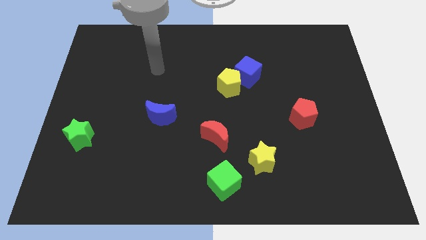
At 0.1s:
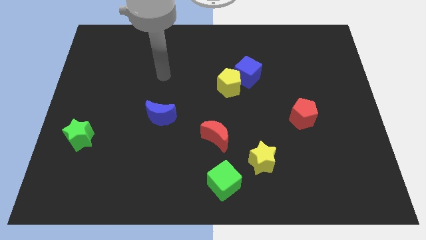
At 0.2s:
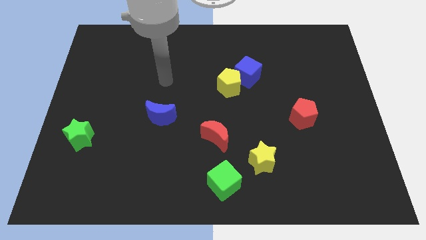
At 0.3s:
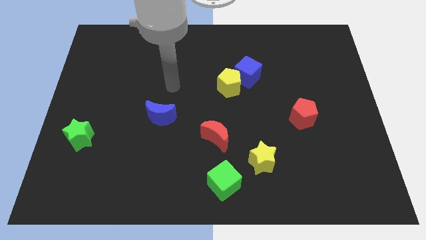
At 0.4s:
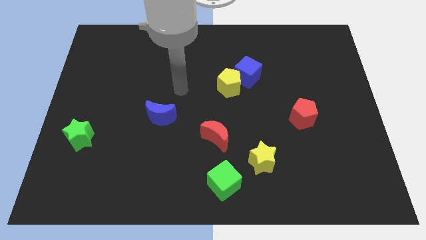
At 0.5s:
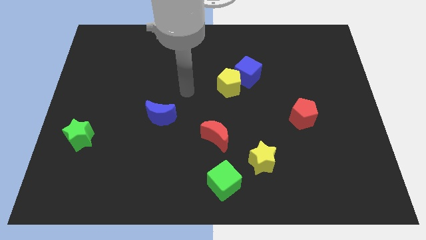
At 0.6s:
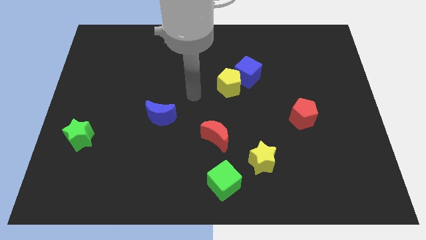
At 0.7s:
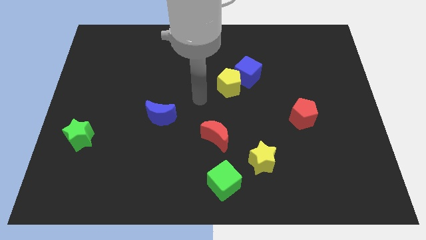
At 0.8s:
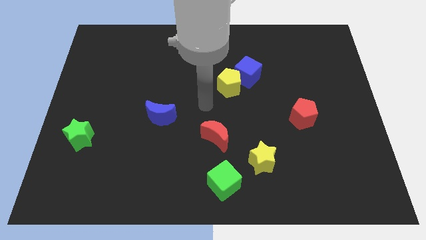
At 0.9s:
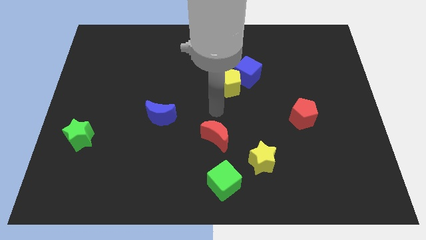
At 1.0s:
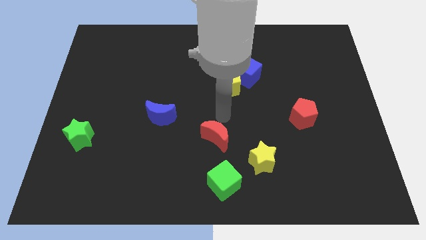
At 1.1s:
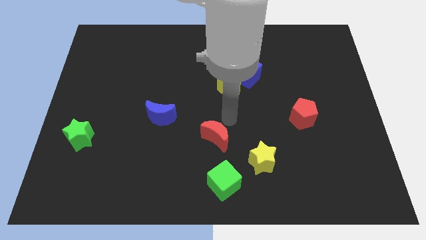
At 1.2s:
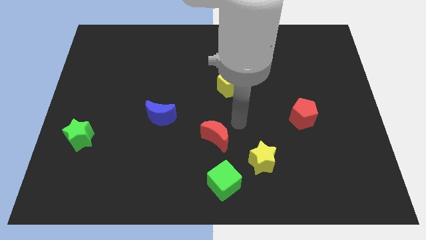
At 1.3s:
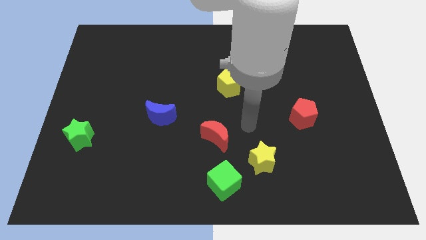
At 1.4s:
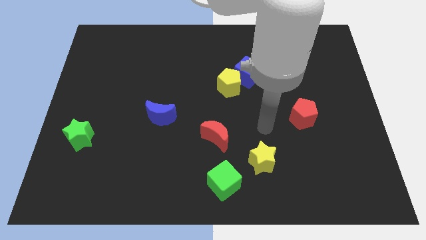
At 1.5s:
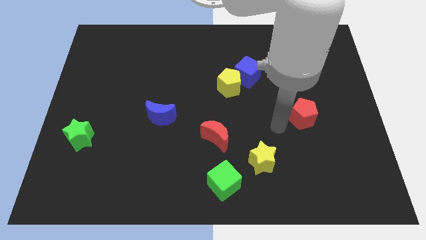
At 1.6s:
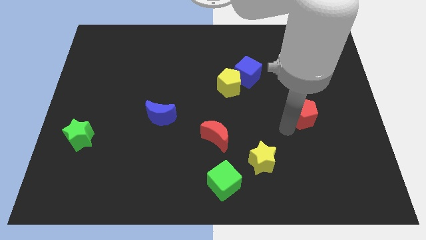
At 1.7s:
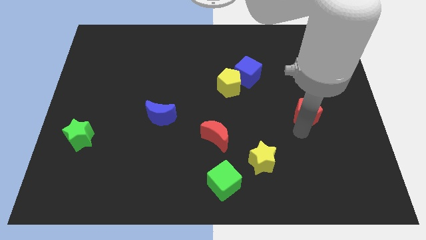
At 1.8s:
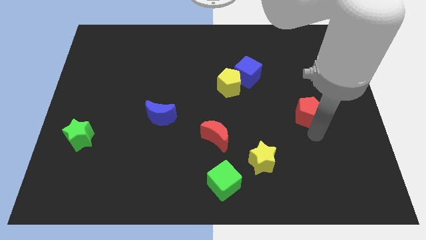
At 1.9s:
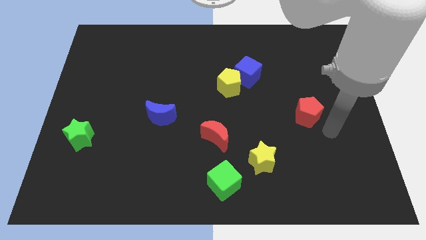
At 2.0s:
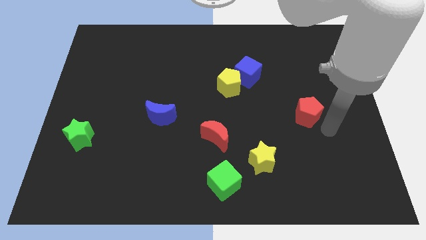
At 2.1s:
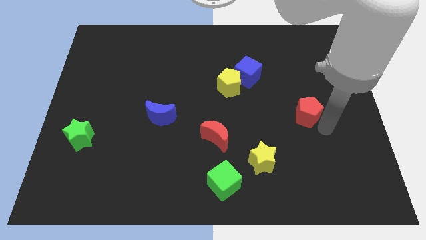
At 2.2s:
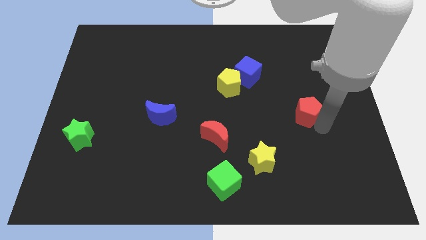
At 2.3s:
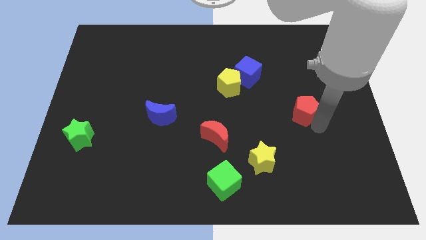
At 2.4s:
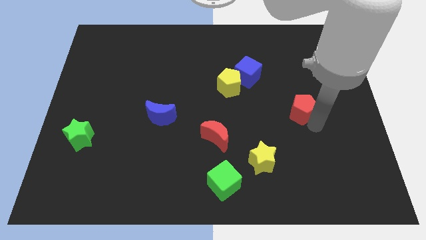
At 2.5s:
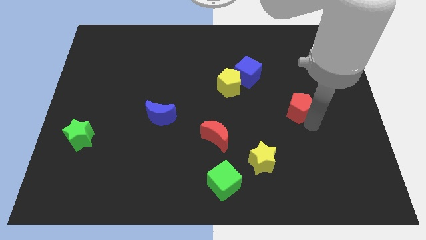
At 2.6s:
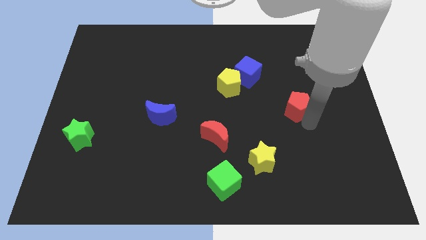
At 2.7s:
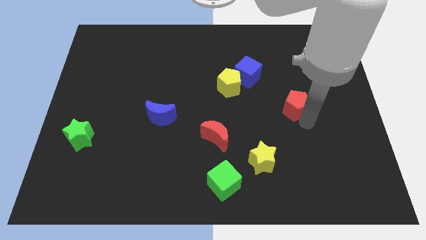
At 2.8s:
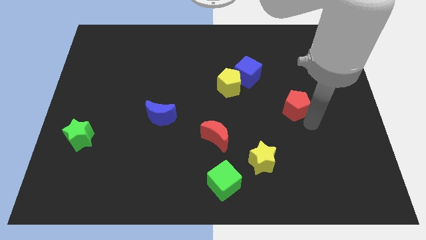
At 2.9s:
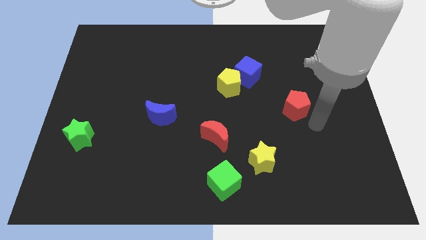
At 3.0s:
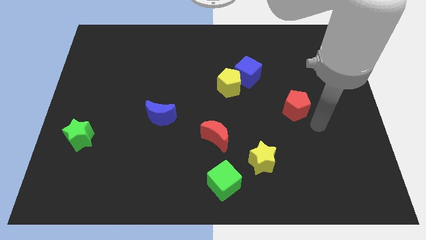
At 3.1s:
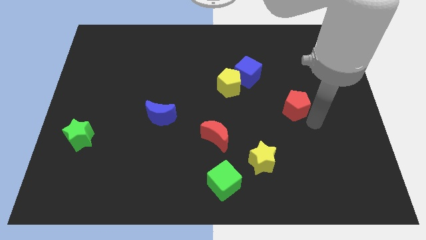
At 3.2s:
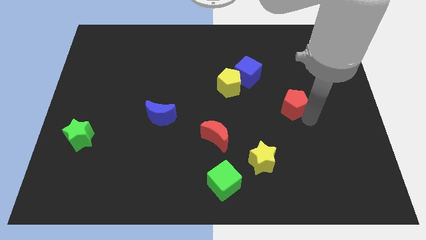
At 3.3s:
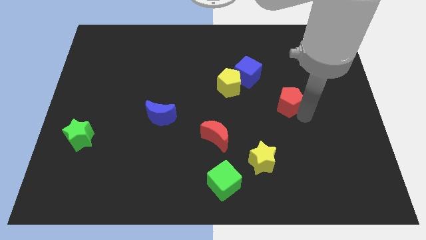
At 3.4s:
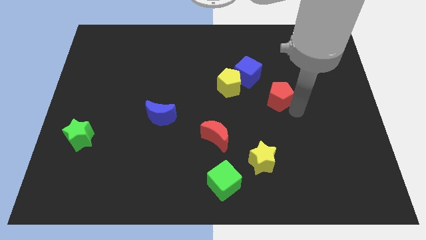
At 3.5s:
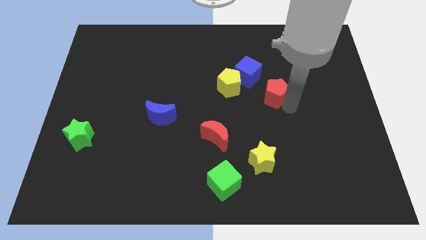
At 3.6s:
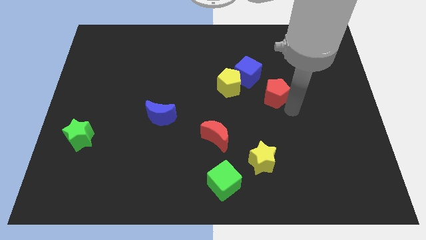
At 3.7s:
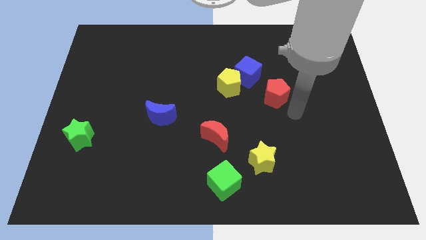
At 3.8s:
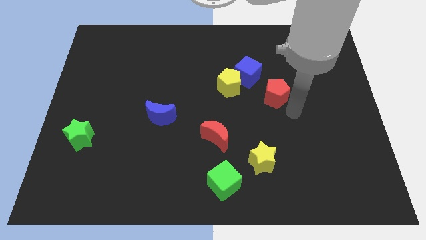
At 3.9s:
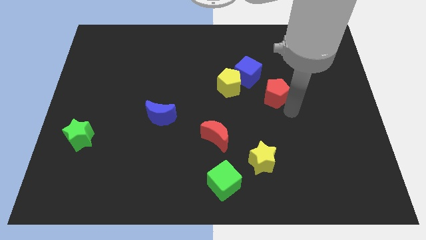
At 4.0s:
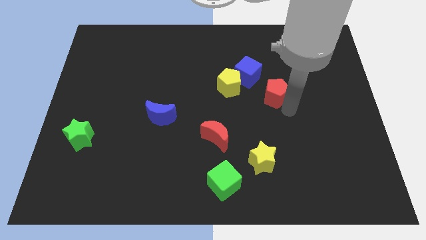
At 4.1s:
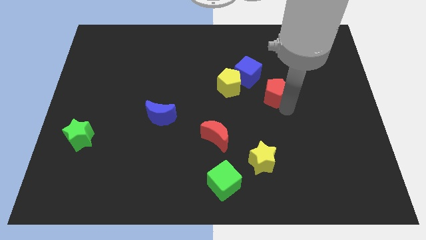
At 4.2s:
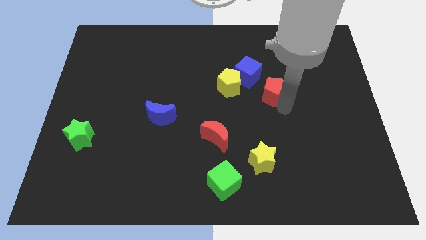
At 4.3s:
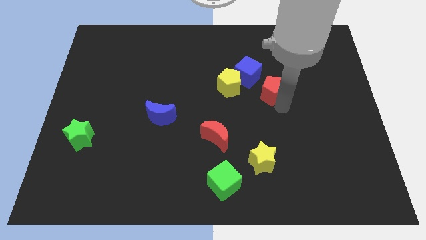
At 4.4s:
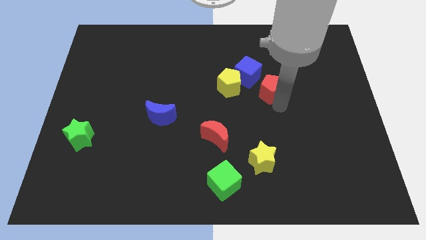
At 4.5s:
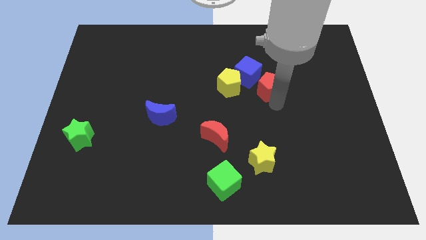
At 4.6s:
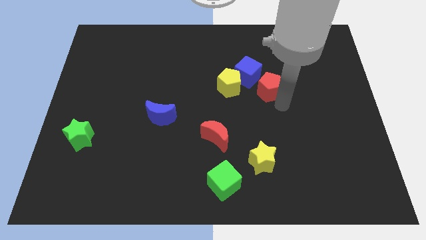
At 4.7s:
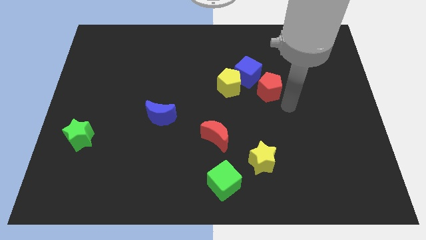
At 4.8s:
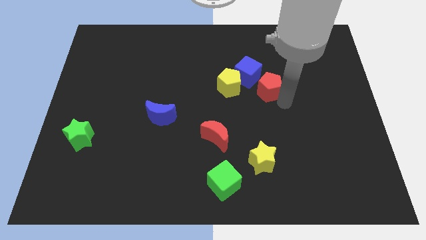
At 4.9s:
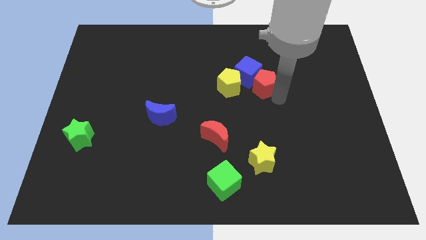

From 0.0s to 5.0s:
move the red pentagon to the blue cube

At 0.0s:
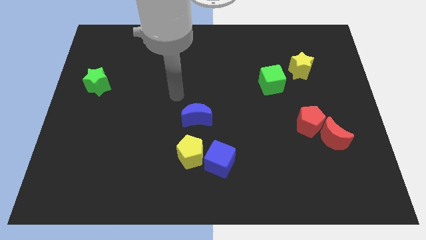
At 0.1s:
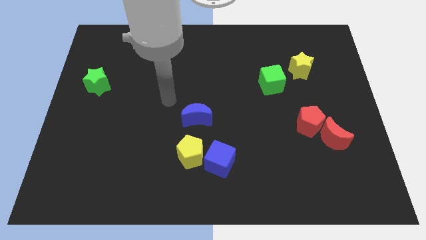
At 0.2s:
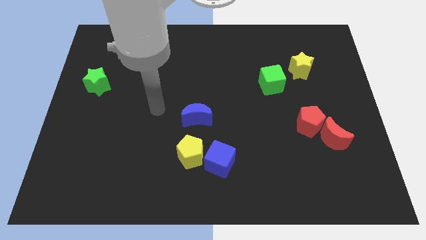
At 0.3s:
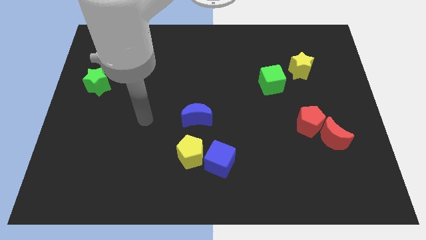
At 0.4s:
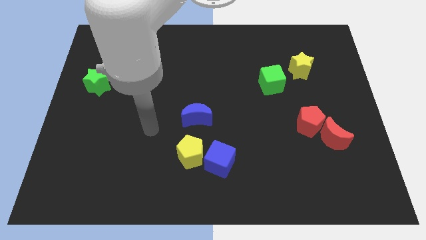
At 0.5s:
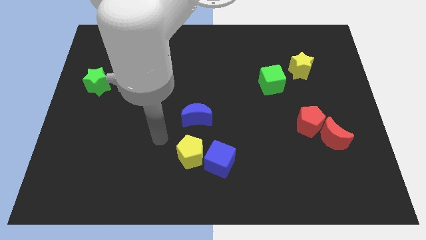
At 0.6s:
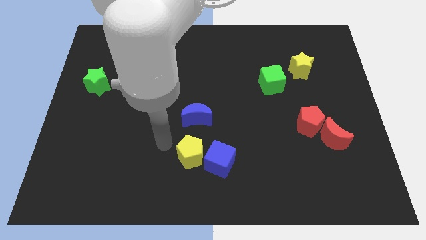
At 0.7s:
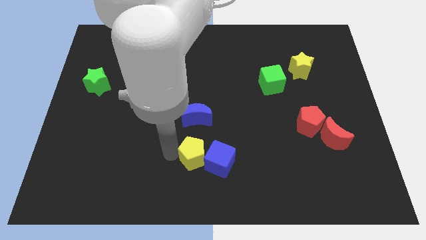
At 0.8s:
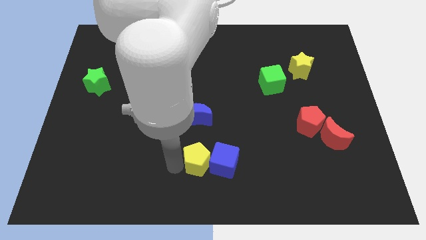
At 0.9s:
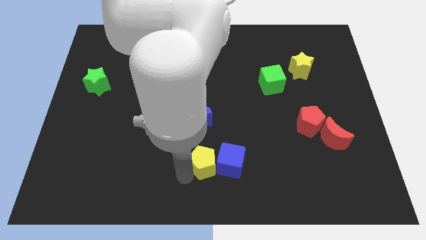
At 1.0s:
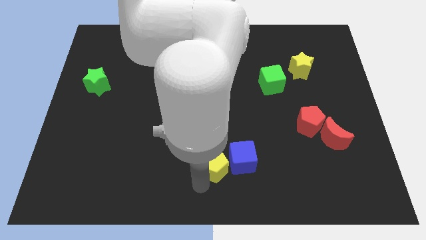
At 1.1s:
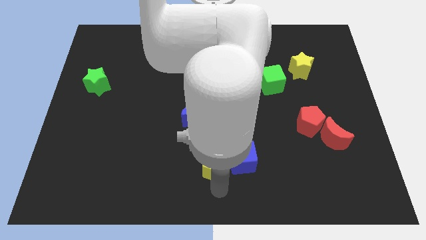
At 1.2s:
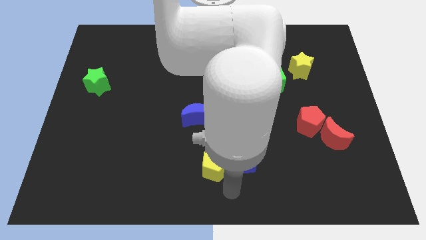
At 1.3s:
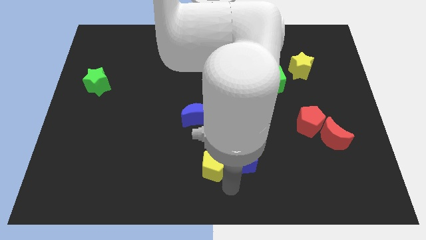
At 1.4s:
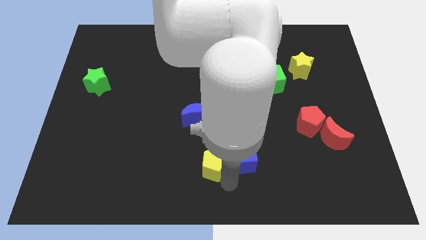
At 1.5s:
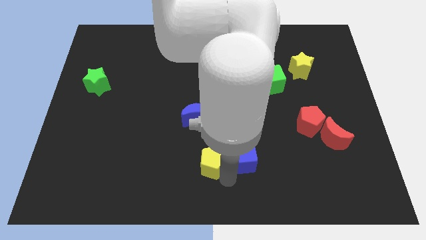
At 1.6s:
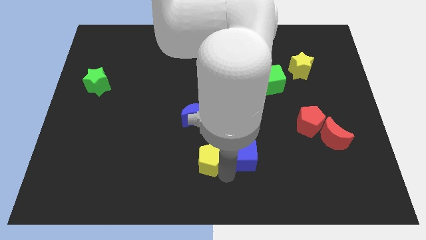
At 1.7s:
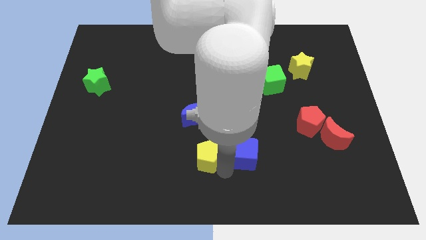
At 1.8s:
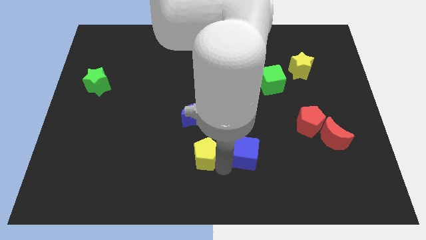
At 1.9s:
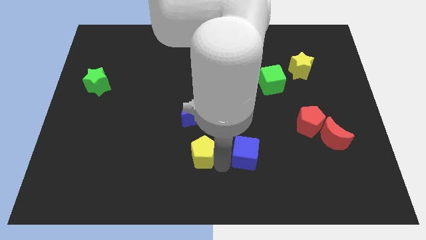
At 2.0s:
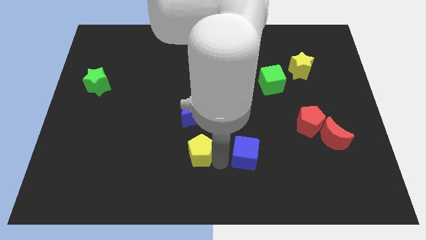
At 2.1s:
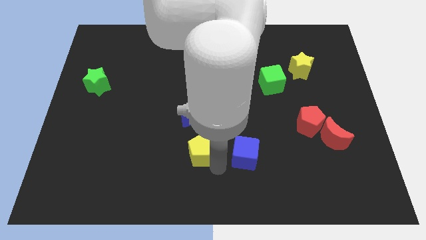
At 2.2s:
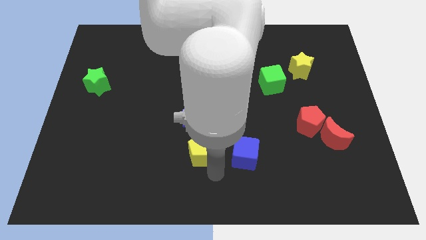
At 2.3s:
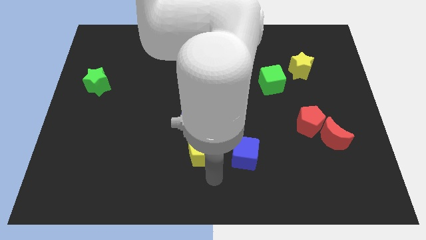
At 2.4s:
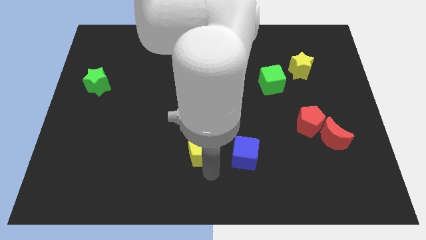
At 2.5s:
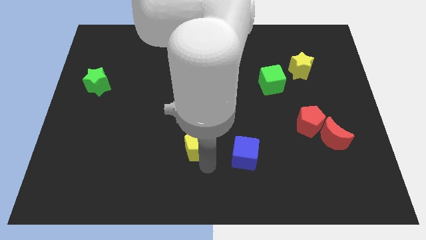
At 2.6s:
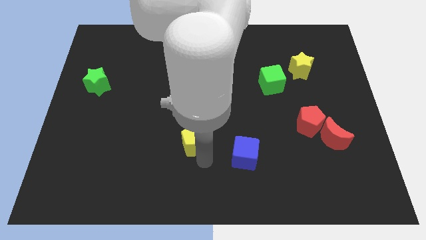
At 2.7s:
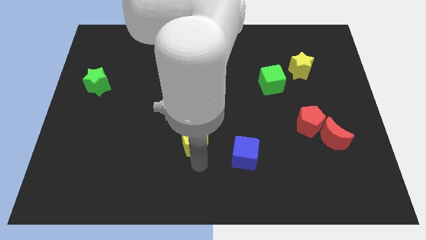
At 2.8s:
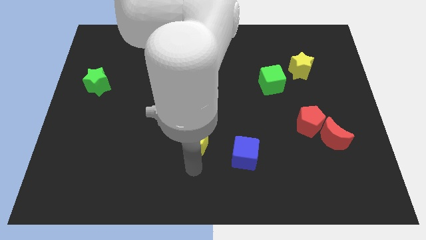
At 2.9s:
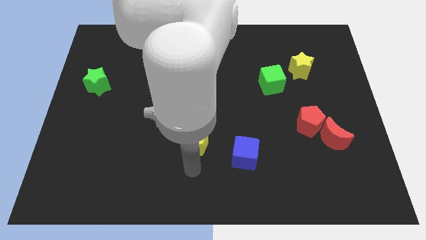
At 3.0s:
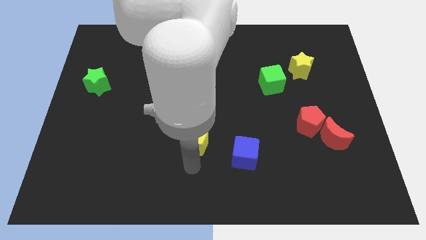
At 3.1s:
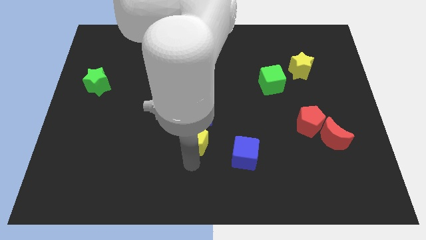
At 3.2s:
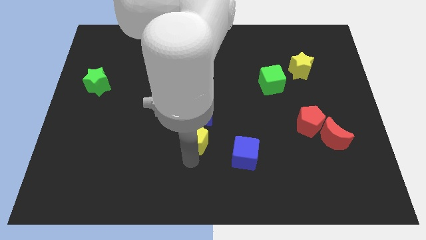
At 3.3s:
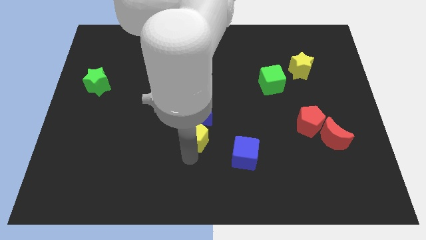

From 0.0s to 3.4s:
put the yellow pentagon towards the blue moon
